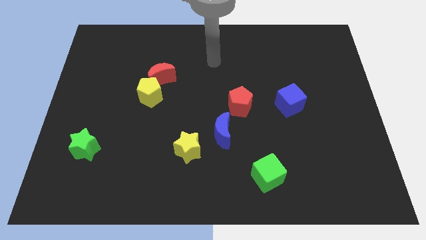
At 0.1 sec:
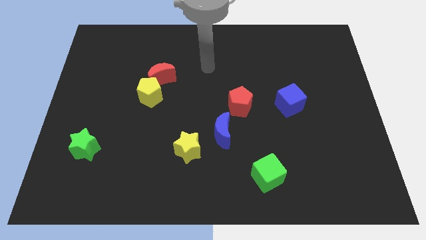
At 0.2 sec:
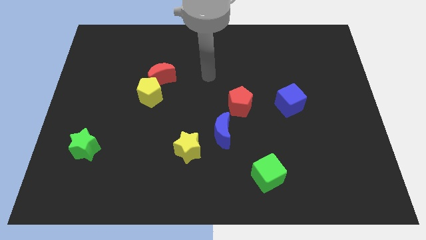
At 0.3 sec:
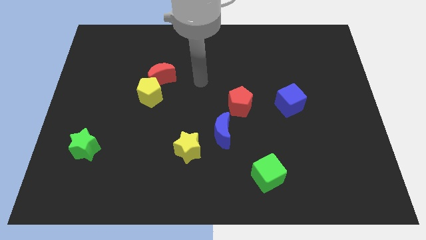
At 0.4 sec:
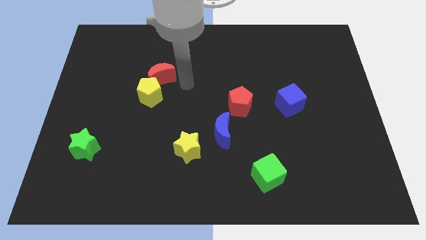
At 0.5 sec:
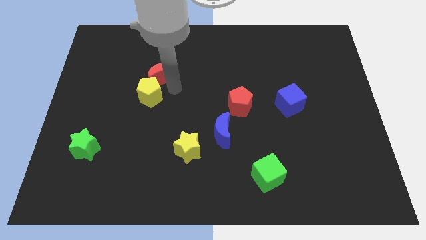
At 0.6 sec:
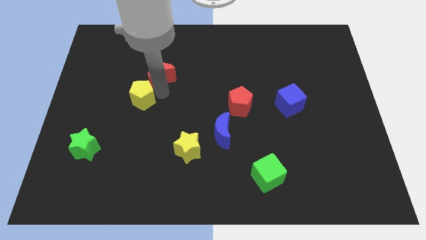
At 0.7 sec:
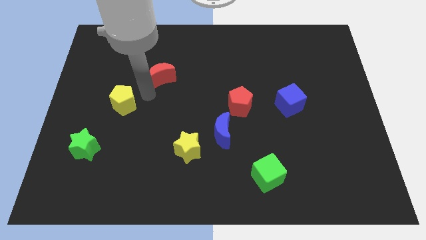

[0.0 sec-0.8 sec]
move the red moon away from the yellow pentagon

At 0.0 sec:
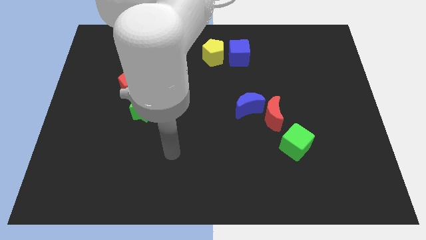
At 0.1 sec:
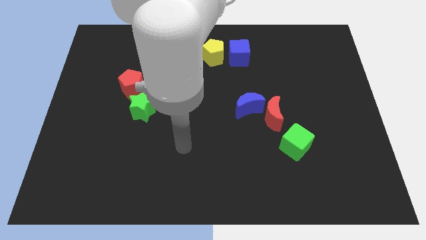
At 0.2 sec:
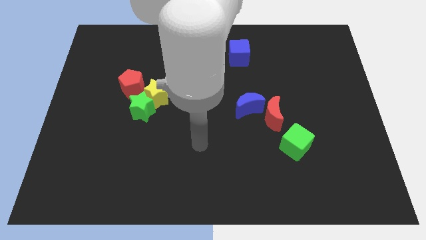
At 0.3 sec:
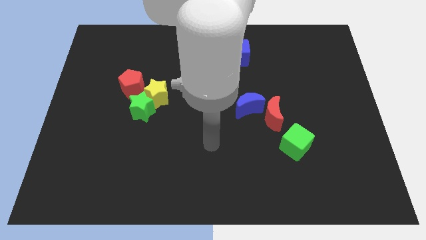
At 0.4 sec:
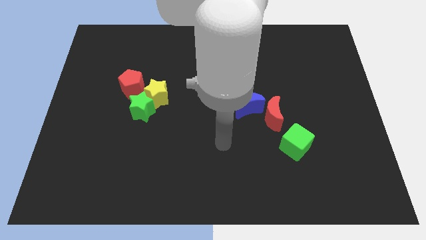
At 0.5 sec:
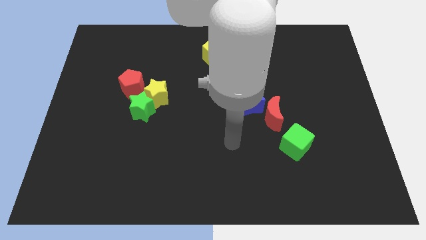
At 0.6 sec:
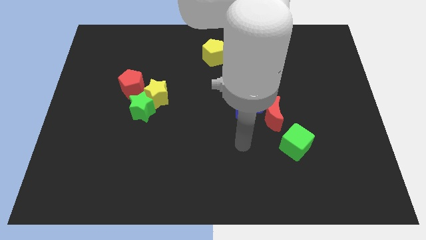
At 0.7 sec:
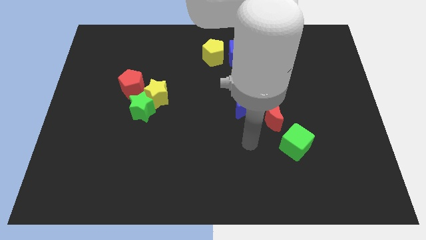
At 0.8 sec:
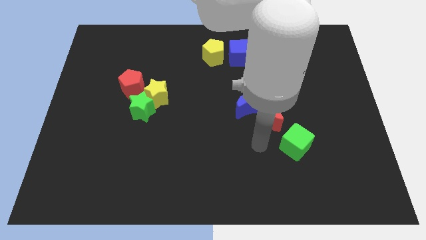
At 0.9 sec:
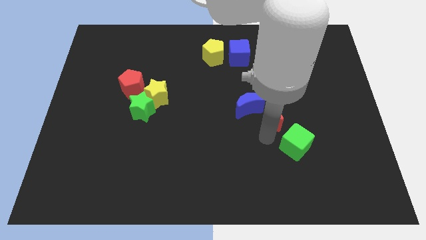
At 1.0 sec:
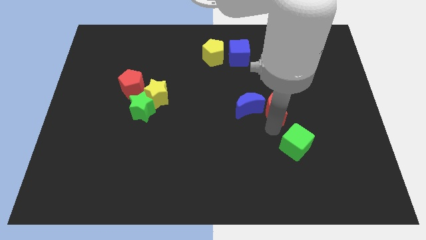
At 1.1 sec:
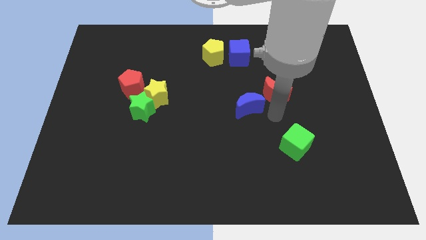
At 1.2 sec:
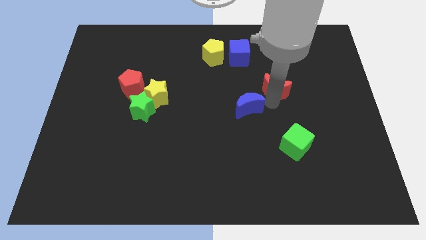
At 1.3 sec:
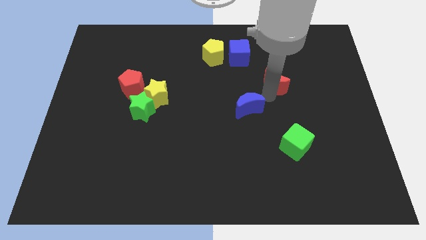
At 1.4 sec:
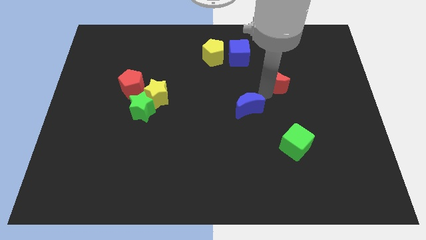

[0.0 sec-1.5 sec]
move the blue moon away from the red moon

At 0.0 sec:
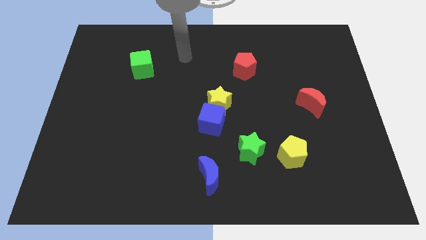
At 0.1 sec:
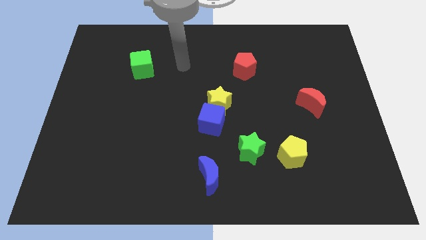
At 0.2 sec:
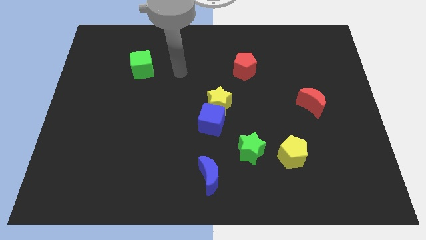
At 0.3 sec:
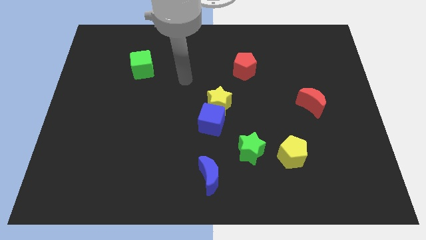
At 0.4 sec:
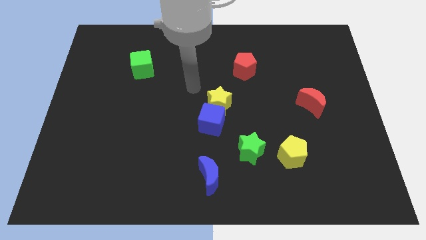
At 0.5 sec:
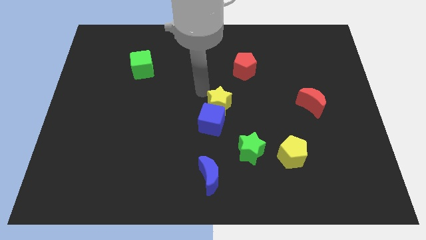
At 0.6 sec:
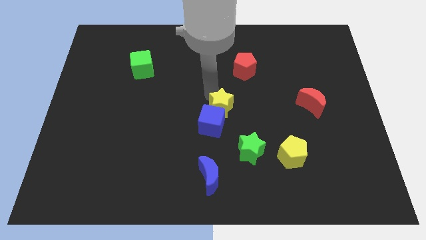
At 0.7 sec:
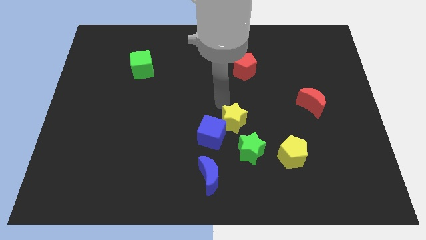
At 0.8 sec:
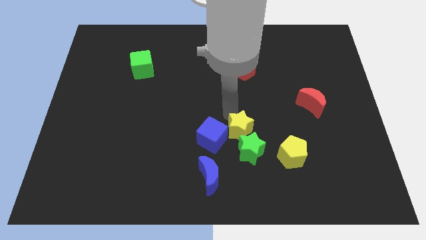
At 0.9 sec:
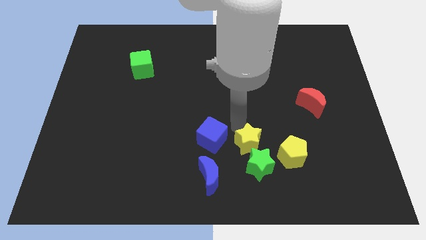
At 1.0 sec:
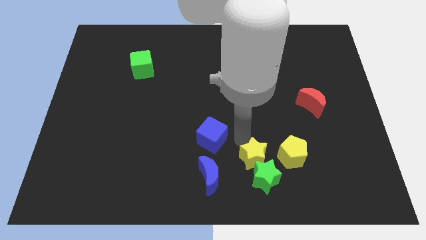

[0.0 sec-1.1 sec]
pull the blue cube apart from the yellow star

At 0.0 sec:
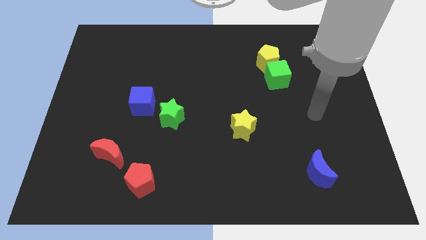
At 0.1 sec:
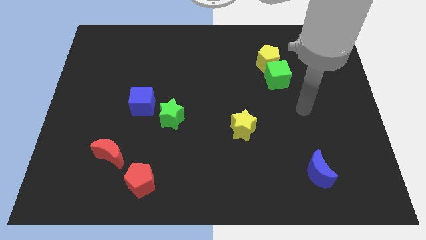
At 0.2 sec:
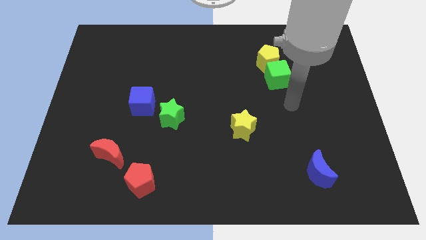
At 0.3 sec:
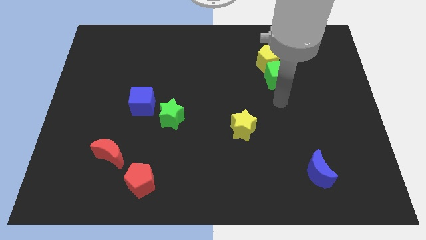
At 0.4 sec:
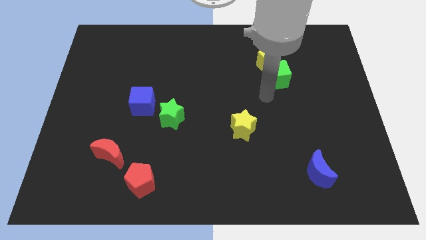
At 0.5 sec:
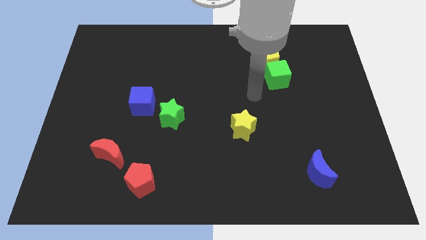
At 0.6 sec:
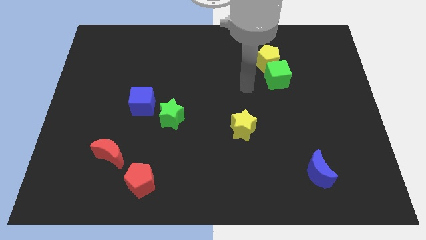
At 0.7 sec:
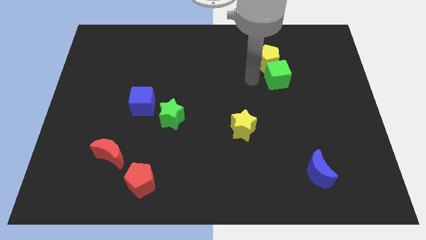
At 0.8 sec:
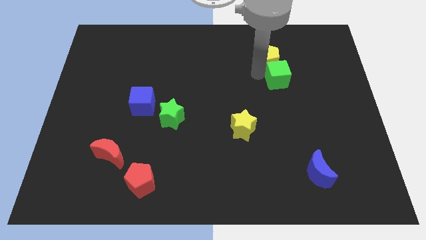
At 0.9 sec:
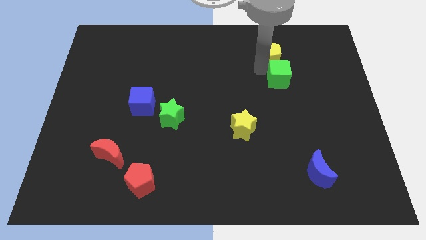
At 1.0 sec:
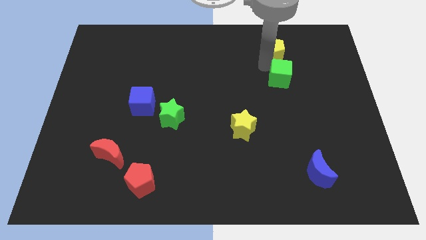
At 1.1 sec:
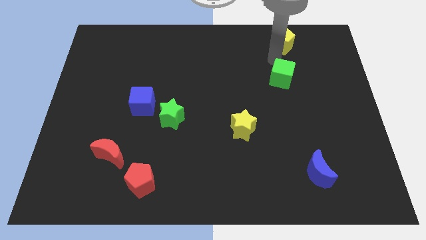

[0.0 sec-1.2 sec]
separate the green cube from the yellow pentagon

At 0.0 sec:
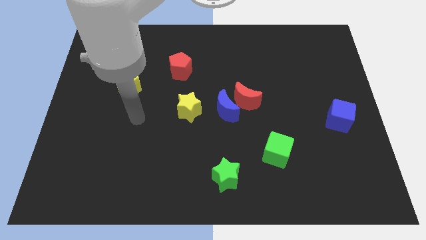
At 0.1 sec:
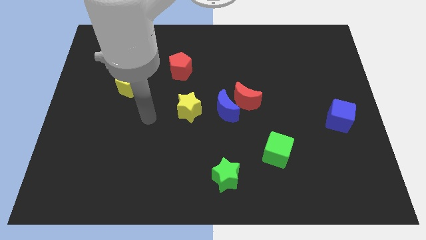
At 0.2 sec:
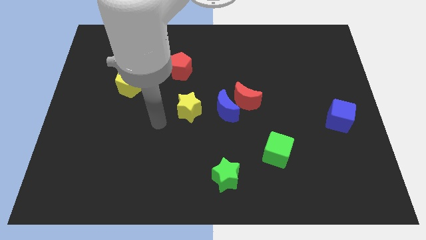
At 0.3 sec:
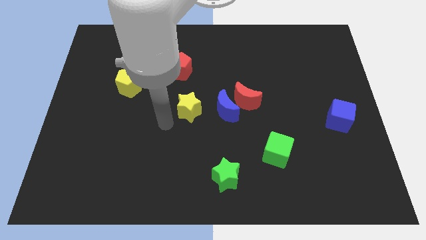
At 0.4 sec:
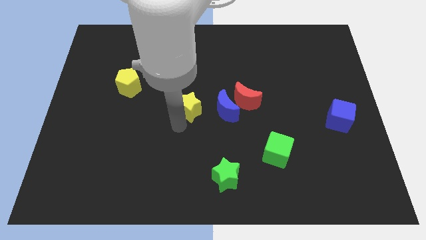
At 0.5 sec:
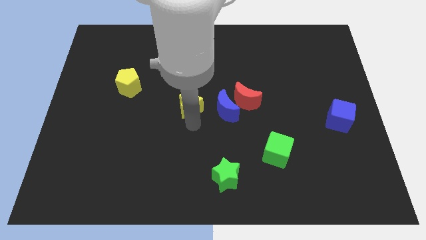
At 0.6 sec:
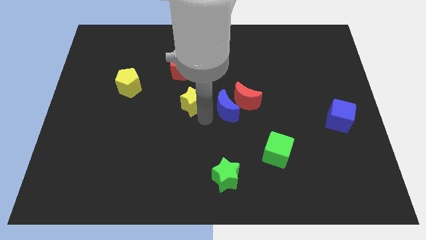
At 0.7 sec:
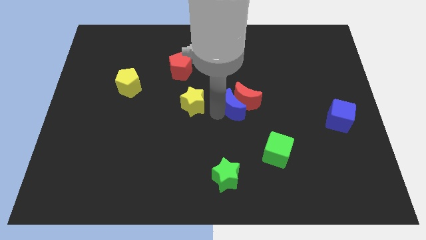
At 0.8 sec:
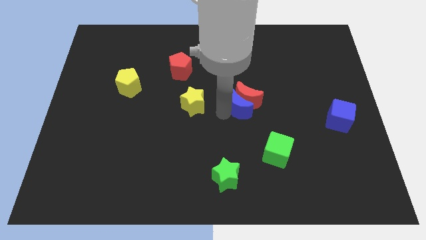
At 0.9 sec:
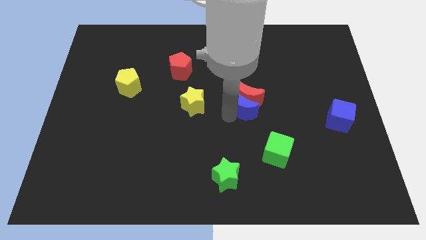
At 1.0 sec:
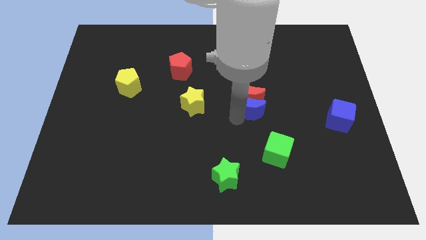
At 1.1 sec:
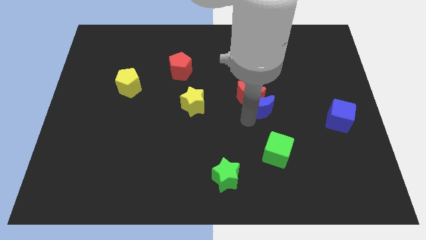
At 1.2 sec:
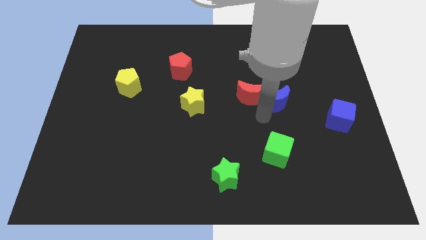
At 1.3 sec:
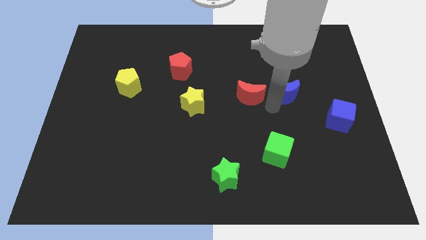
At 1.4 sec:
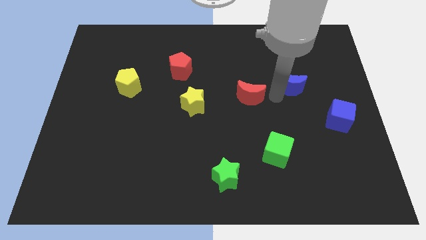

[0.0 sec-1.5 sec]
separate the red moon from the blue moon

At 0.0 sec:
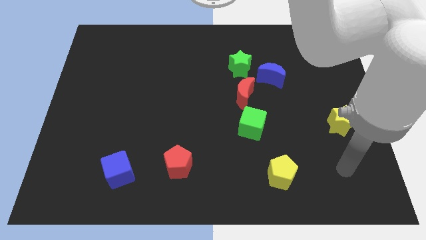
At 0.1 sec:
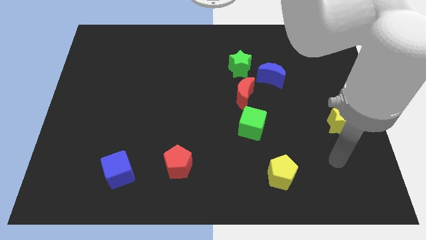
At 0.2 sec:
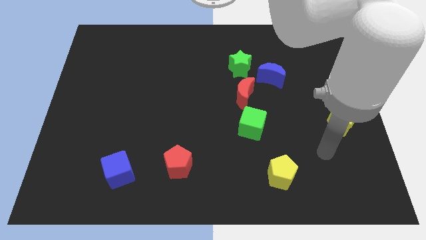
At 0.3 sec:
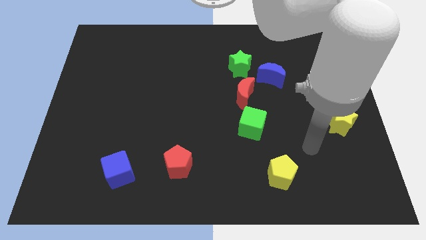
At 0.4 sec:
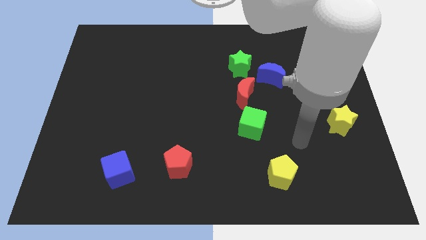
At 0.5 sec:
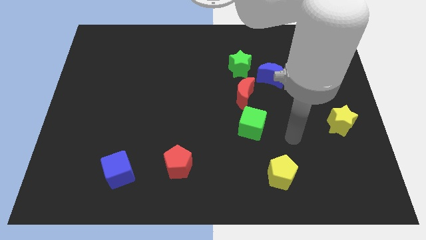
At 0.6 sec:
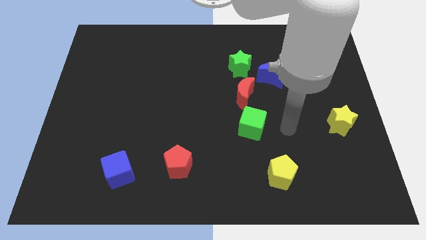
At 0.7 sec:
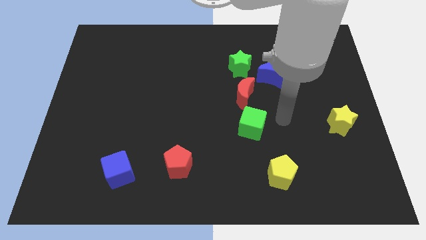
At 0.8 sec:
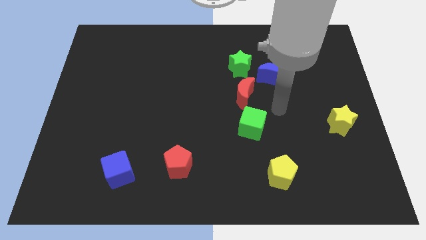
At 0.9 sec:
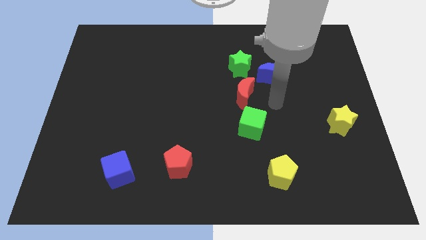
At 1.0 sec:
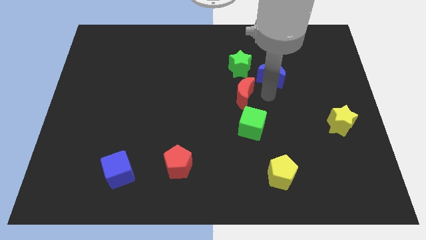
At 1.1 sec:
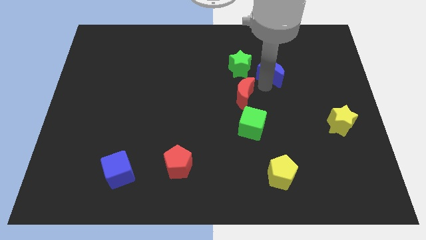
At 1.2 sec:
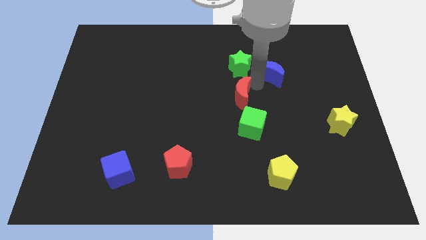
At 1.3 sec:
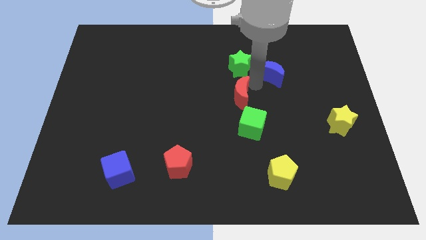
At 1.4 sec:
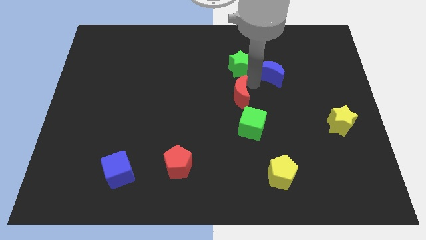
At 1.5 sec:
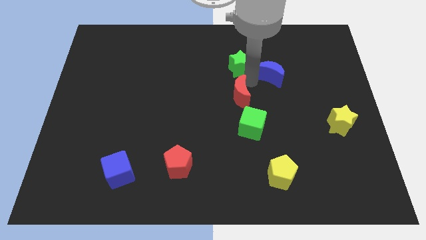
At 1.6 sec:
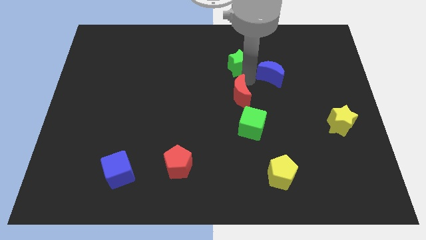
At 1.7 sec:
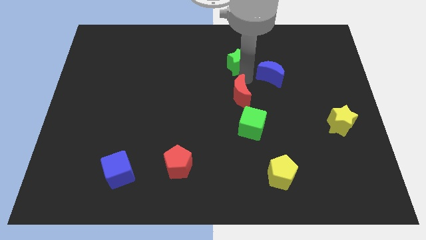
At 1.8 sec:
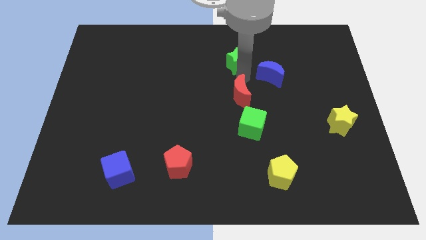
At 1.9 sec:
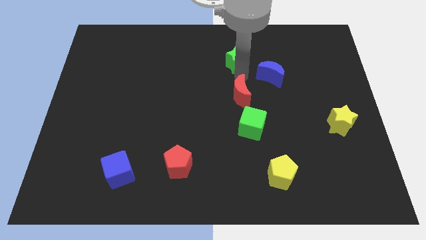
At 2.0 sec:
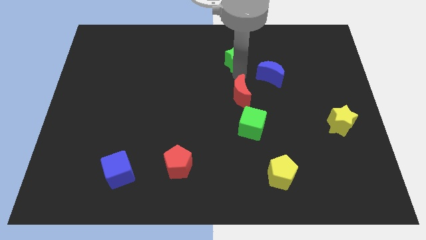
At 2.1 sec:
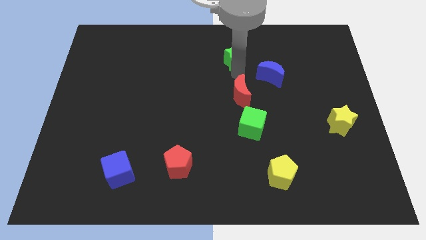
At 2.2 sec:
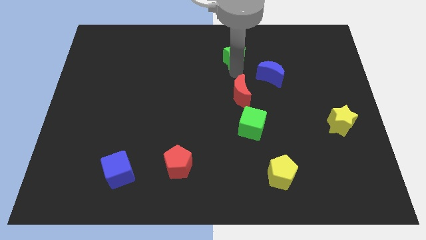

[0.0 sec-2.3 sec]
move the green star away from the blue moon and red moon

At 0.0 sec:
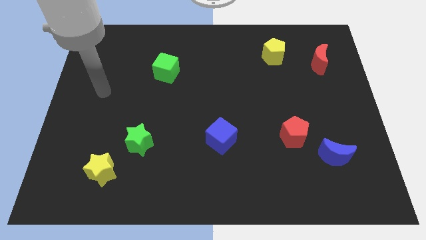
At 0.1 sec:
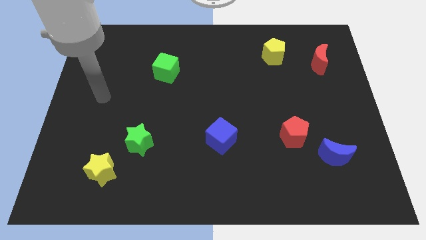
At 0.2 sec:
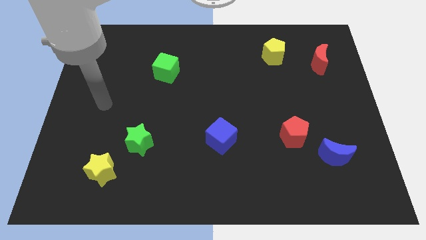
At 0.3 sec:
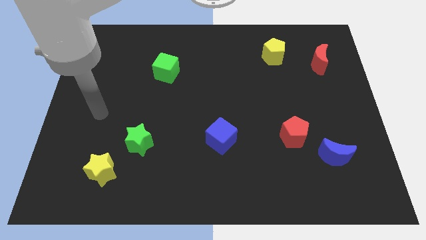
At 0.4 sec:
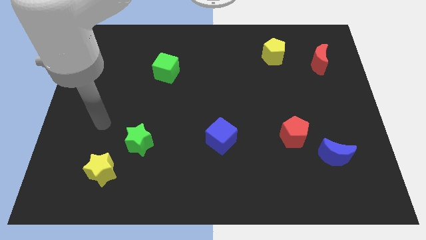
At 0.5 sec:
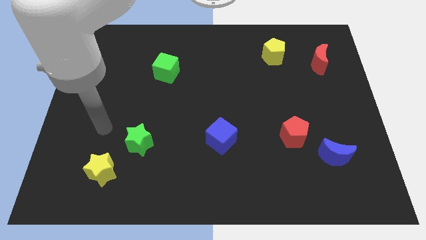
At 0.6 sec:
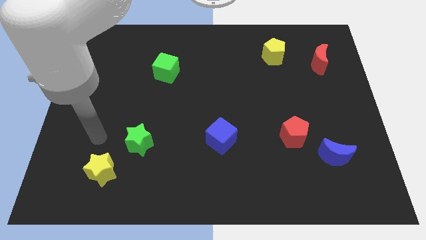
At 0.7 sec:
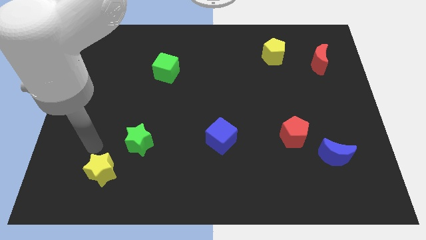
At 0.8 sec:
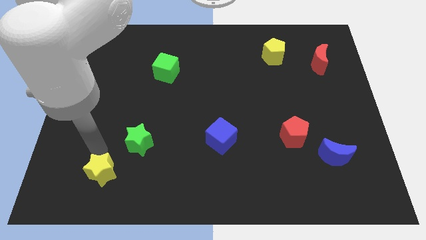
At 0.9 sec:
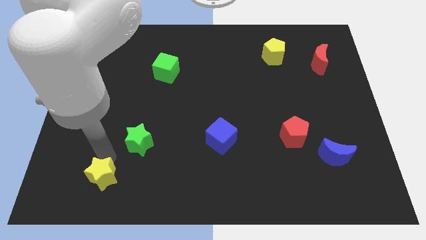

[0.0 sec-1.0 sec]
move the green star away from the yellow star
